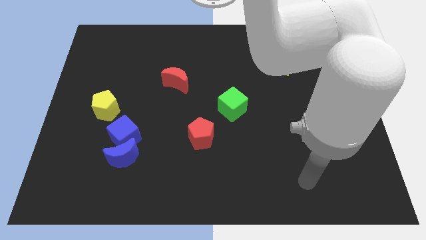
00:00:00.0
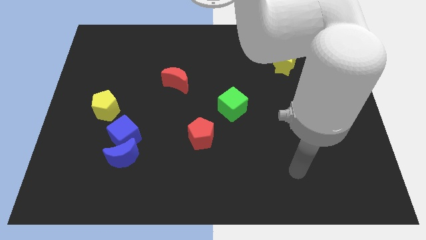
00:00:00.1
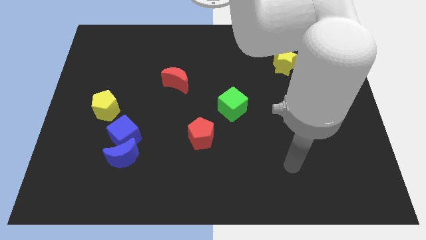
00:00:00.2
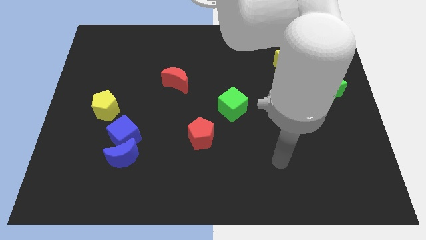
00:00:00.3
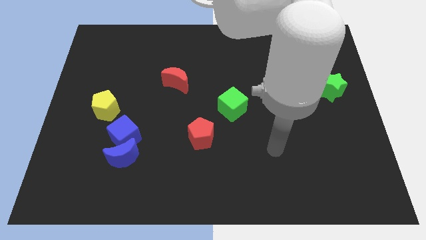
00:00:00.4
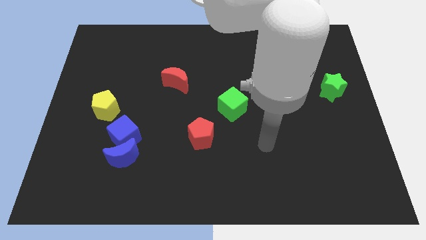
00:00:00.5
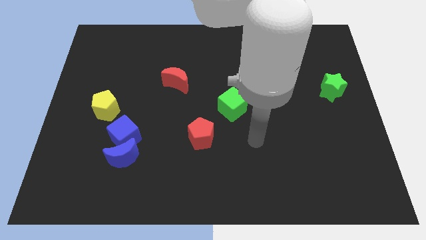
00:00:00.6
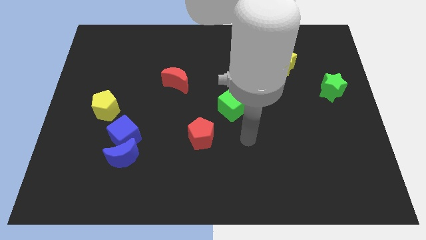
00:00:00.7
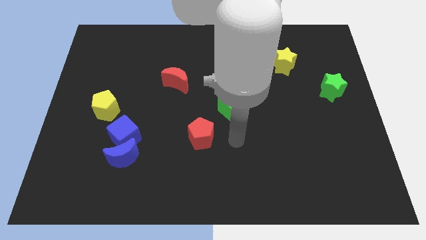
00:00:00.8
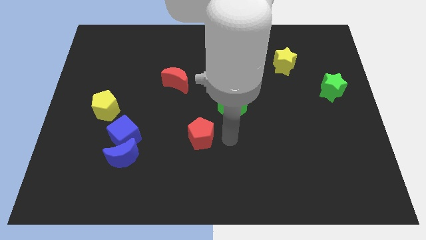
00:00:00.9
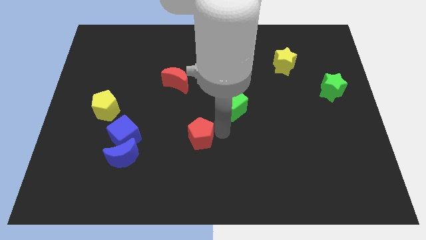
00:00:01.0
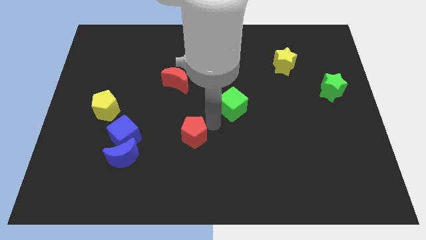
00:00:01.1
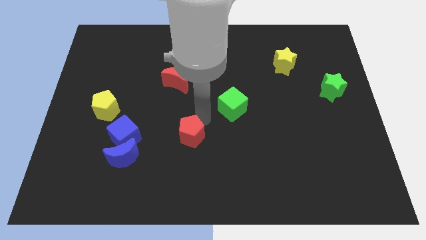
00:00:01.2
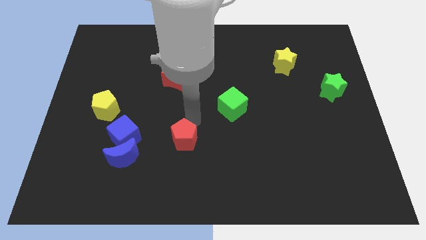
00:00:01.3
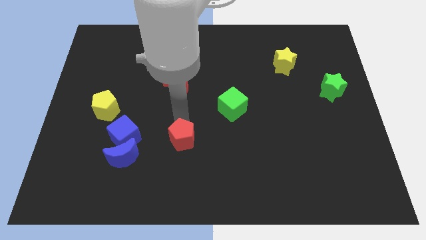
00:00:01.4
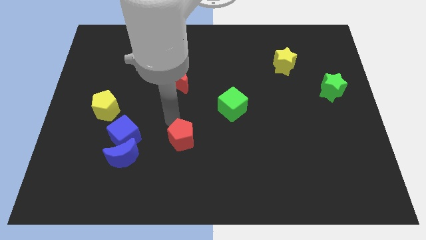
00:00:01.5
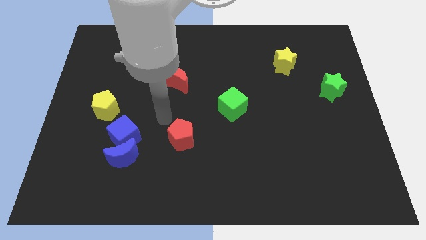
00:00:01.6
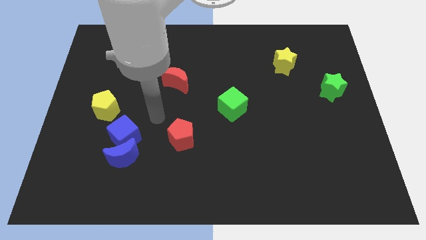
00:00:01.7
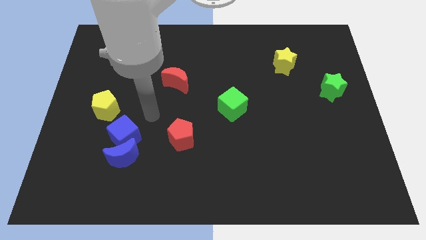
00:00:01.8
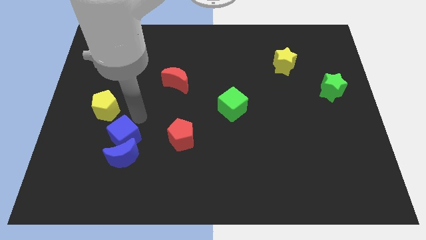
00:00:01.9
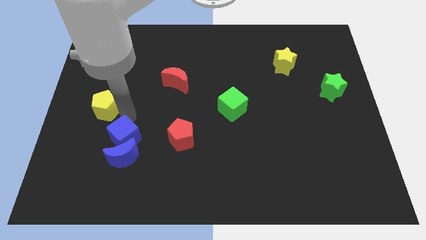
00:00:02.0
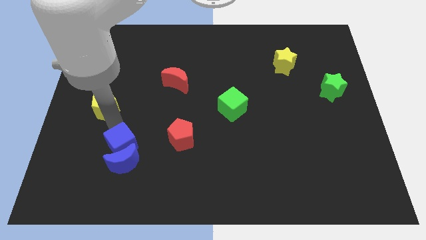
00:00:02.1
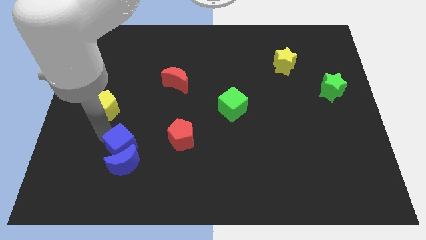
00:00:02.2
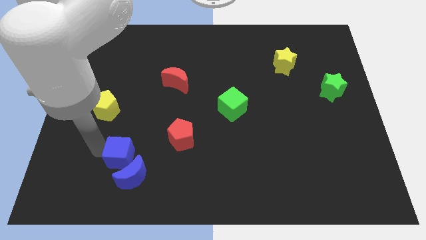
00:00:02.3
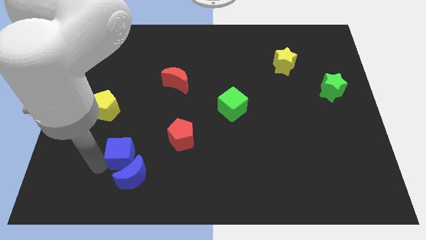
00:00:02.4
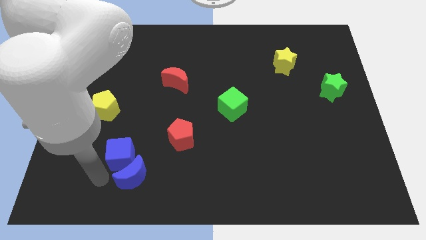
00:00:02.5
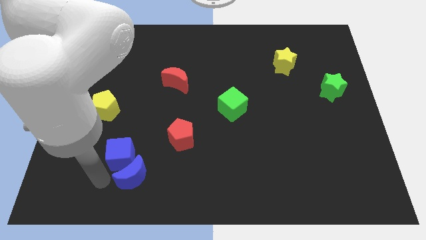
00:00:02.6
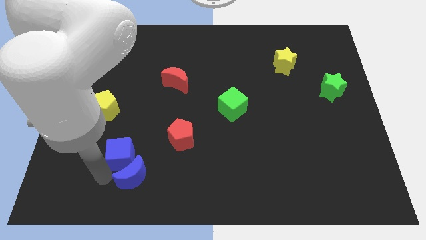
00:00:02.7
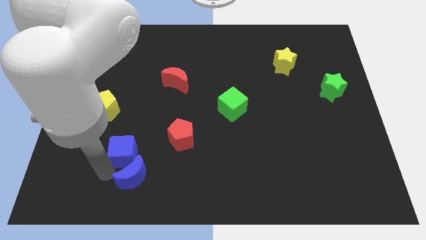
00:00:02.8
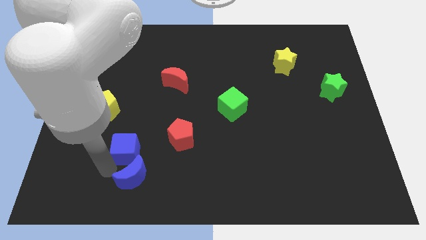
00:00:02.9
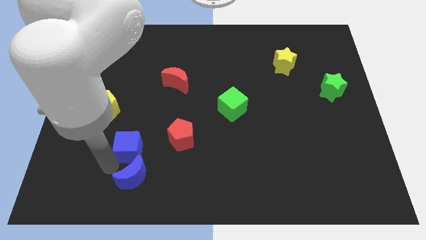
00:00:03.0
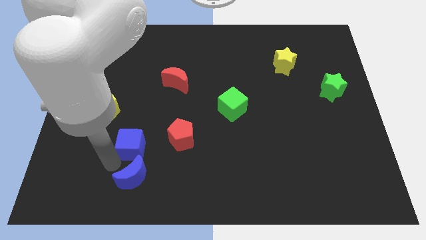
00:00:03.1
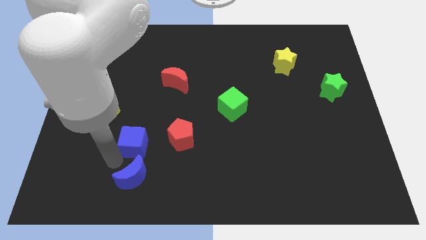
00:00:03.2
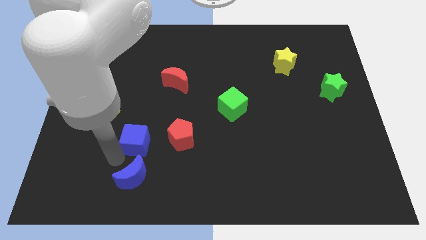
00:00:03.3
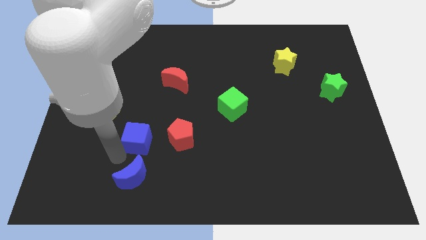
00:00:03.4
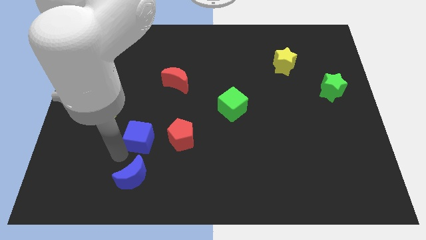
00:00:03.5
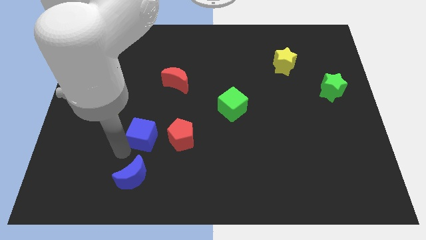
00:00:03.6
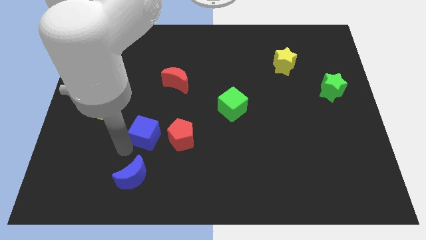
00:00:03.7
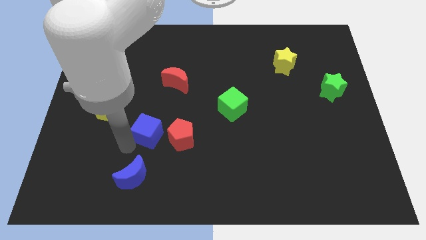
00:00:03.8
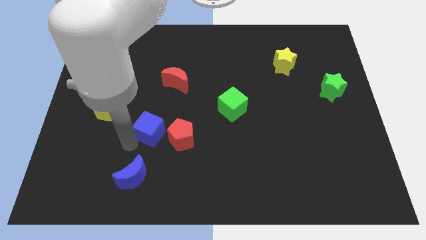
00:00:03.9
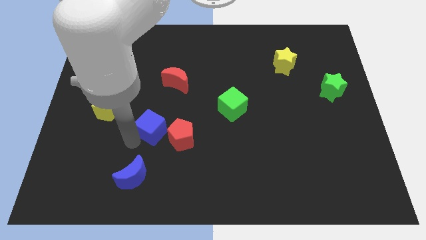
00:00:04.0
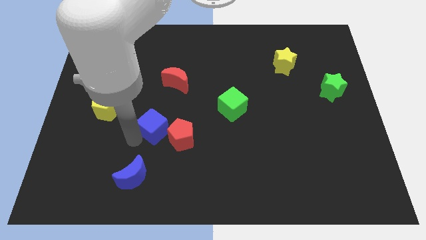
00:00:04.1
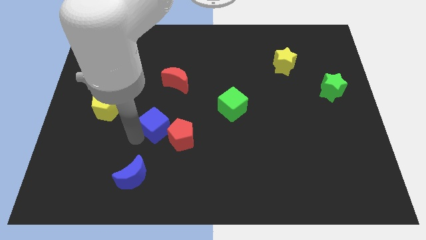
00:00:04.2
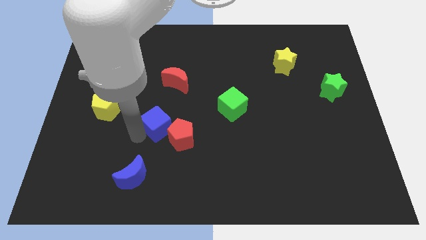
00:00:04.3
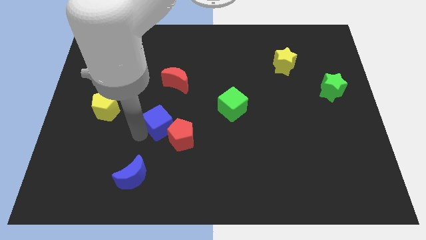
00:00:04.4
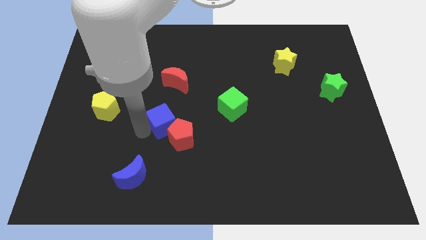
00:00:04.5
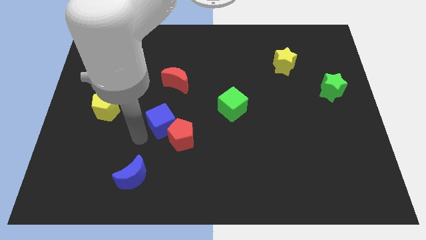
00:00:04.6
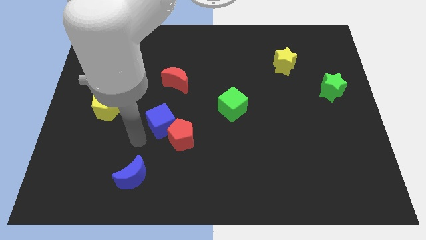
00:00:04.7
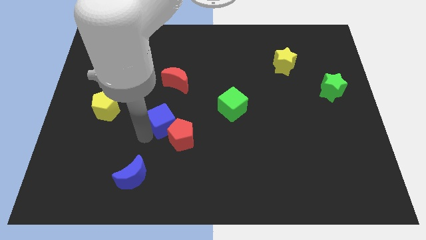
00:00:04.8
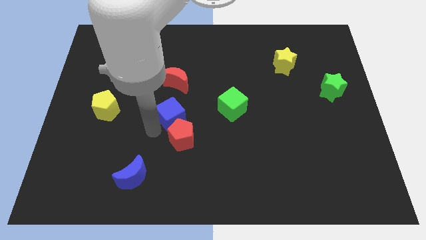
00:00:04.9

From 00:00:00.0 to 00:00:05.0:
move the blue cube to the middle

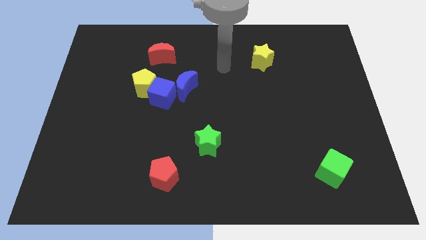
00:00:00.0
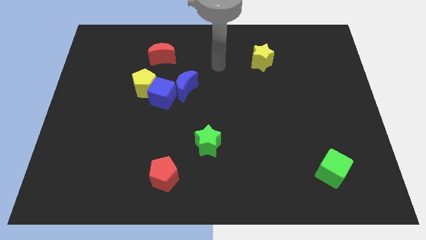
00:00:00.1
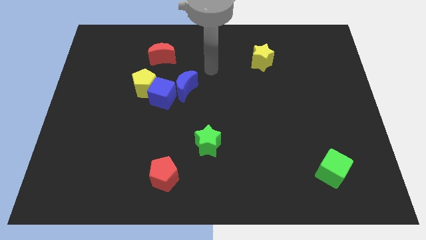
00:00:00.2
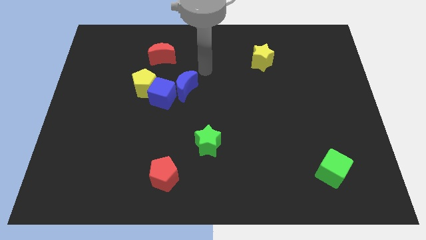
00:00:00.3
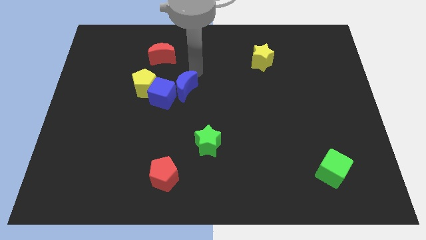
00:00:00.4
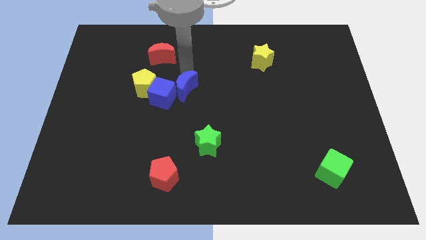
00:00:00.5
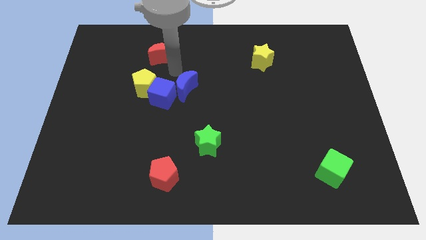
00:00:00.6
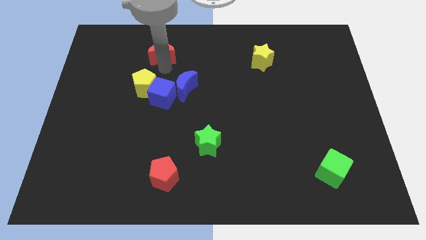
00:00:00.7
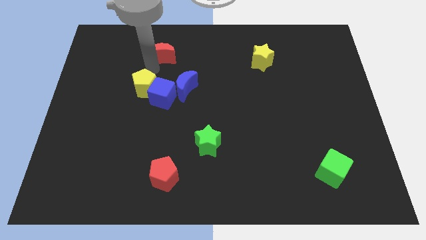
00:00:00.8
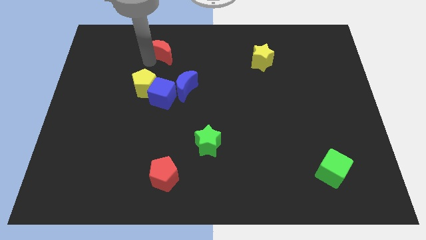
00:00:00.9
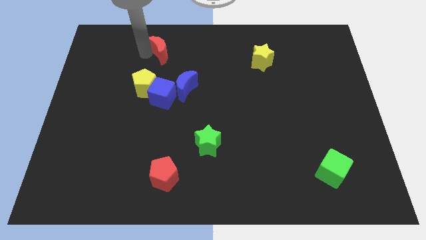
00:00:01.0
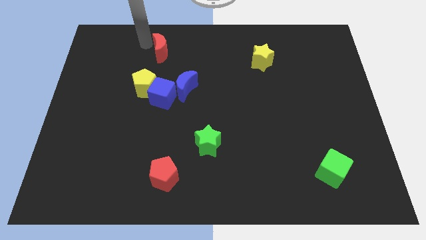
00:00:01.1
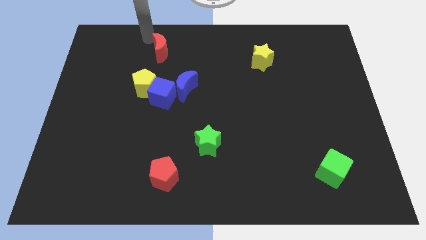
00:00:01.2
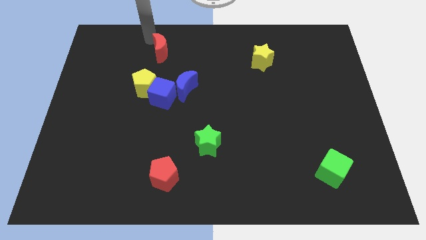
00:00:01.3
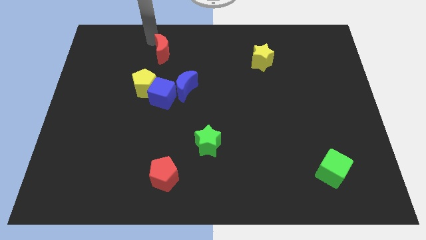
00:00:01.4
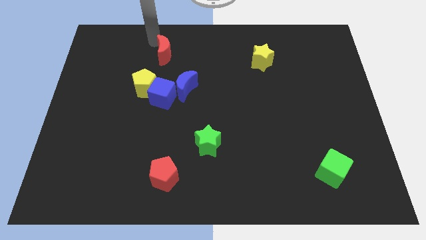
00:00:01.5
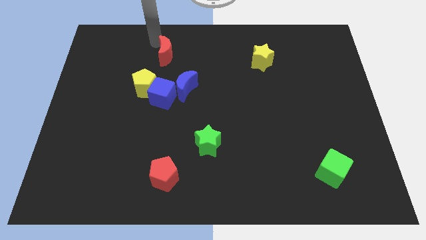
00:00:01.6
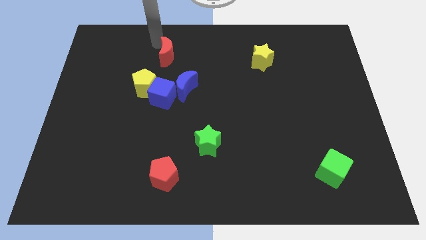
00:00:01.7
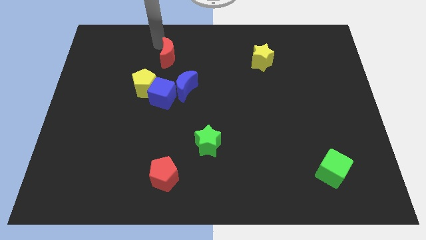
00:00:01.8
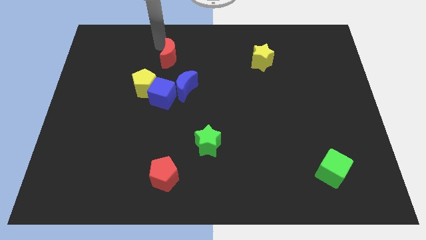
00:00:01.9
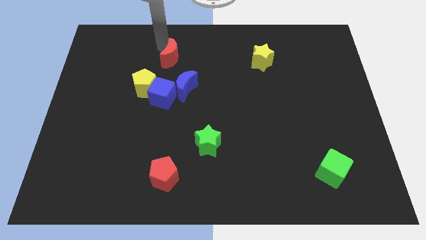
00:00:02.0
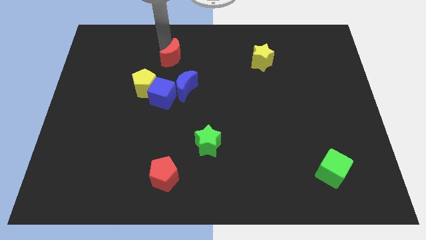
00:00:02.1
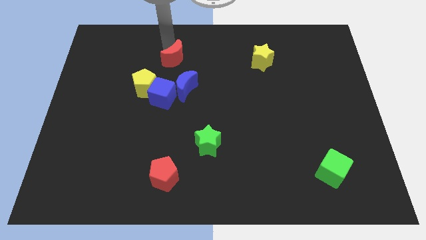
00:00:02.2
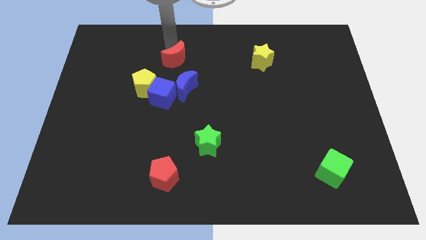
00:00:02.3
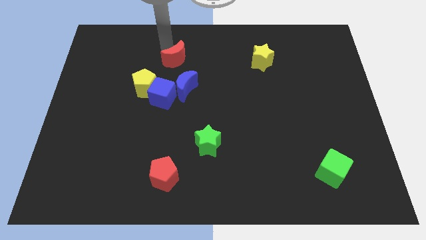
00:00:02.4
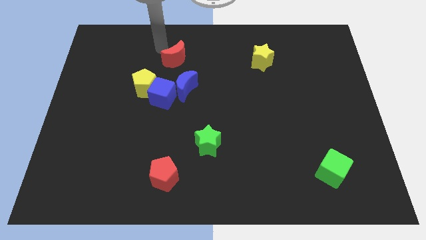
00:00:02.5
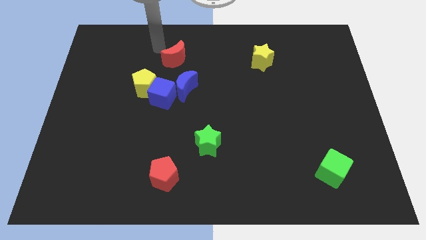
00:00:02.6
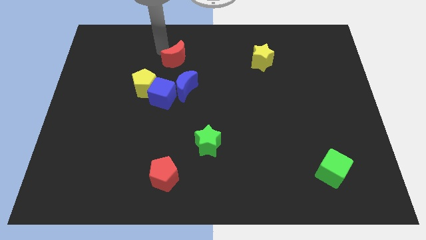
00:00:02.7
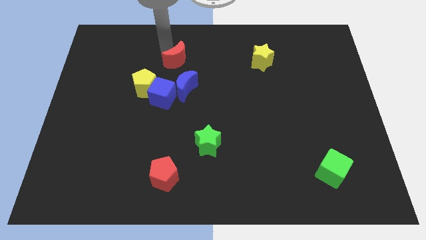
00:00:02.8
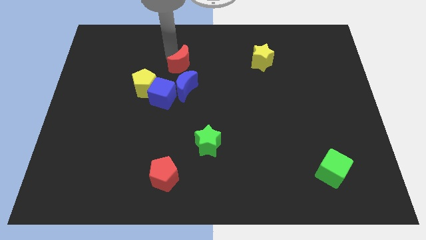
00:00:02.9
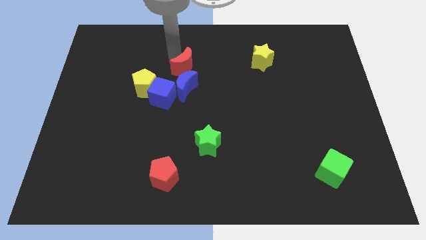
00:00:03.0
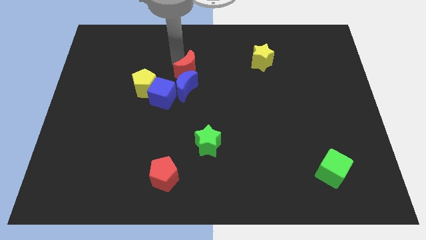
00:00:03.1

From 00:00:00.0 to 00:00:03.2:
move the red moon to the middle

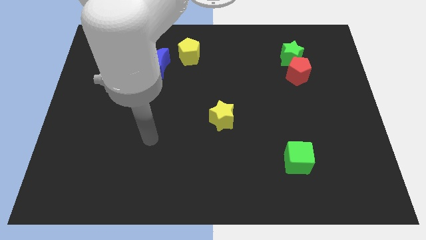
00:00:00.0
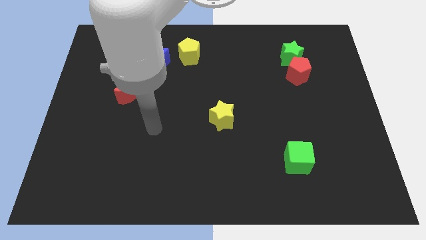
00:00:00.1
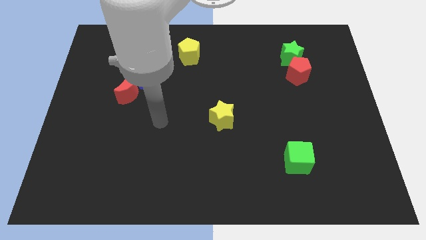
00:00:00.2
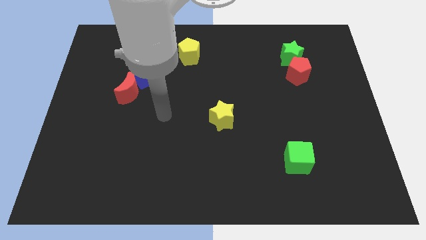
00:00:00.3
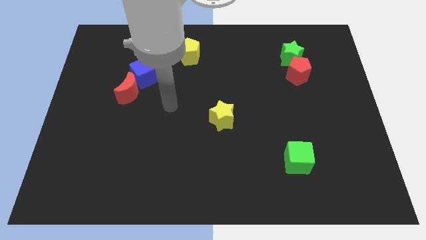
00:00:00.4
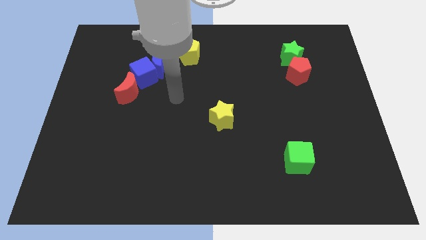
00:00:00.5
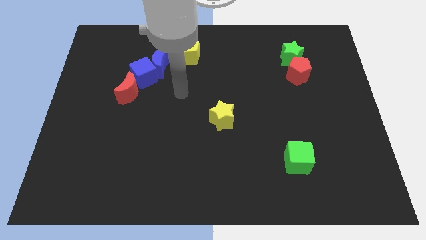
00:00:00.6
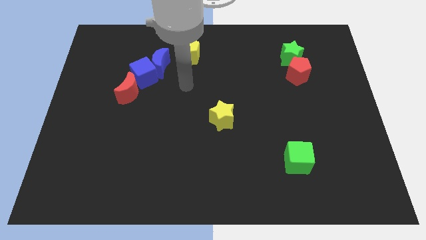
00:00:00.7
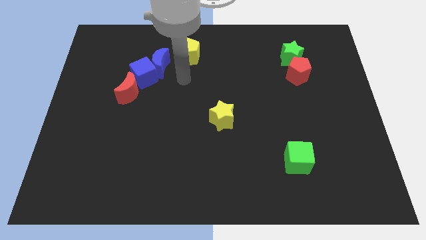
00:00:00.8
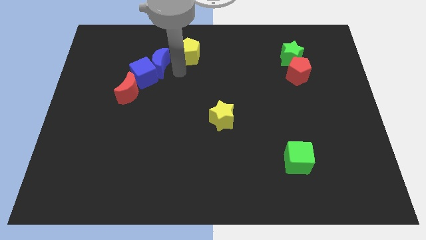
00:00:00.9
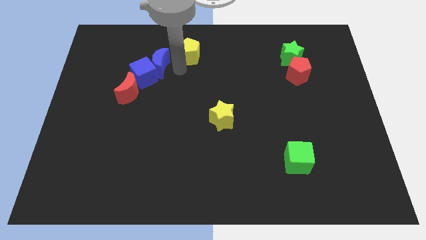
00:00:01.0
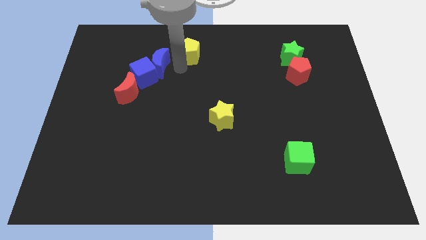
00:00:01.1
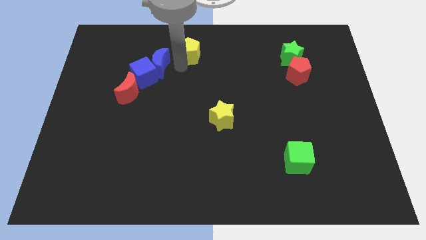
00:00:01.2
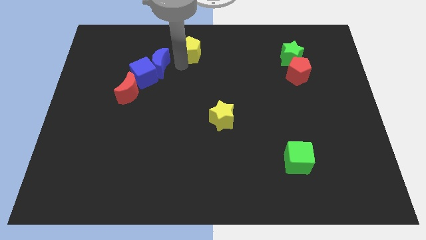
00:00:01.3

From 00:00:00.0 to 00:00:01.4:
put the yellow pentagon to the towards your base
